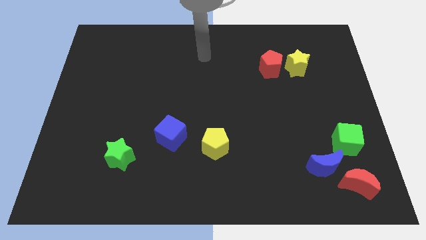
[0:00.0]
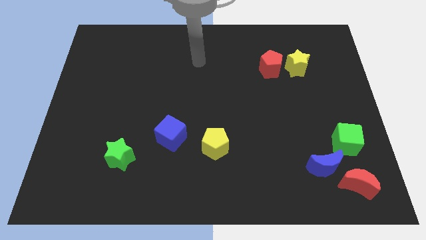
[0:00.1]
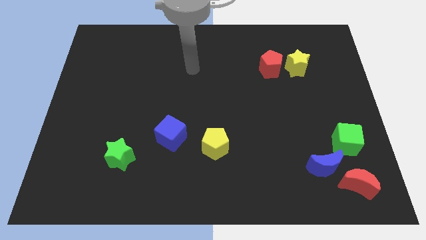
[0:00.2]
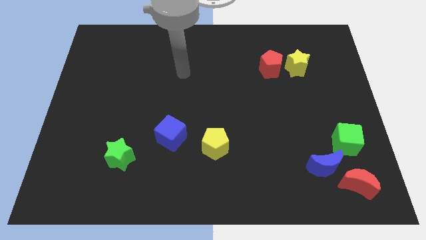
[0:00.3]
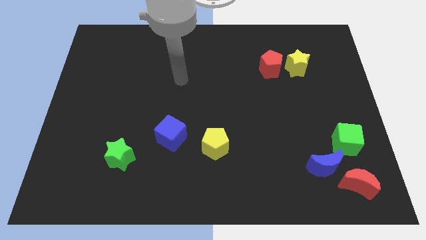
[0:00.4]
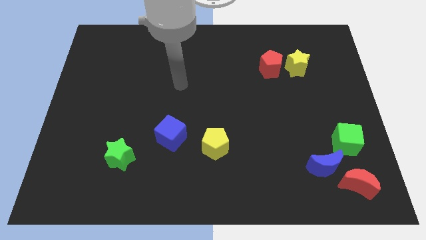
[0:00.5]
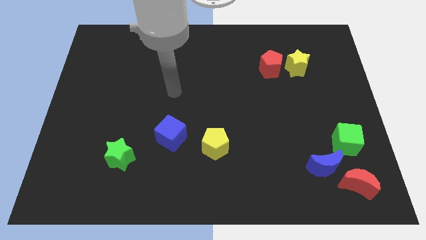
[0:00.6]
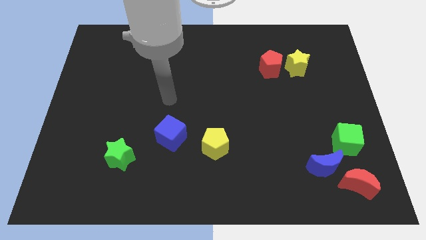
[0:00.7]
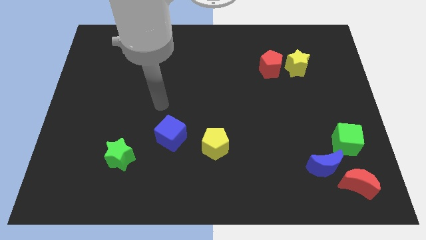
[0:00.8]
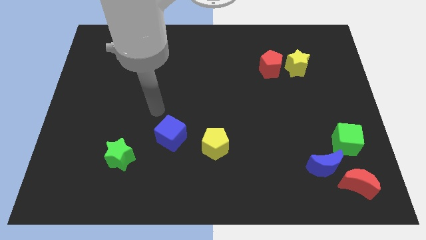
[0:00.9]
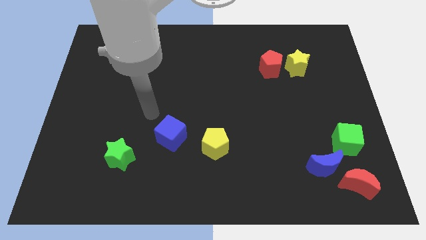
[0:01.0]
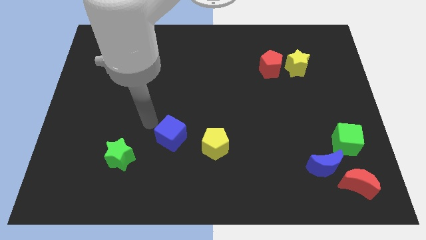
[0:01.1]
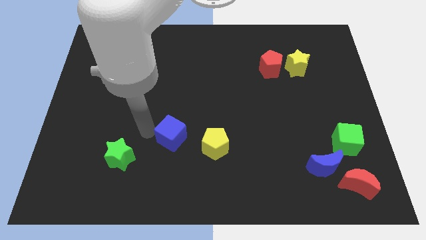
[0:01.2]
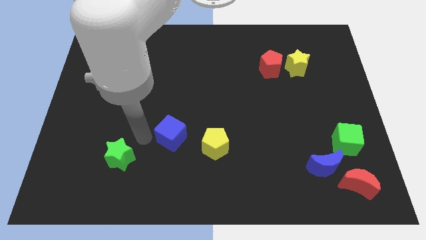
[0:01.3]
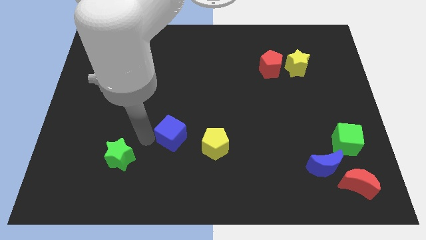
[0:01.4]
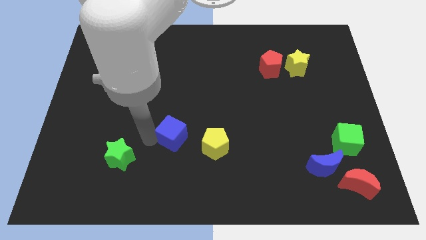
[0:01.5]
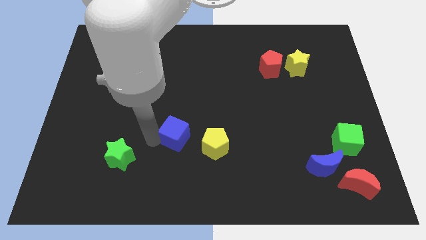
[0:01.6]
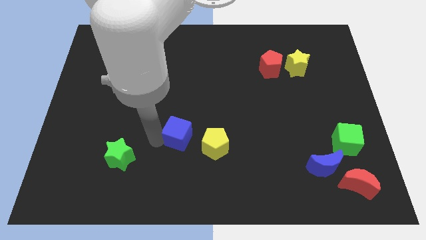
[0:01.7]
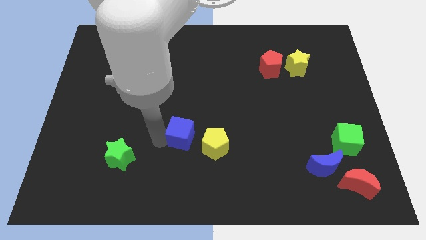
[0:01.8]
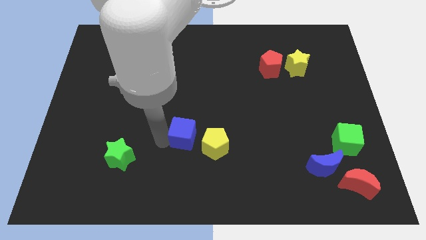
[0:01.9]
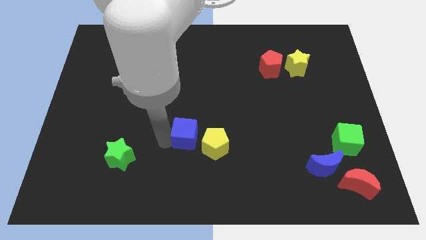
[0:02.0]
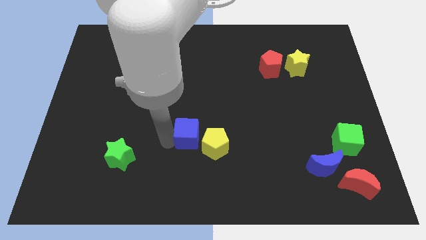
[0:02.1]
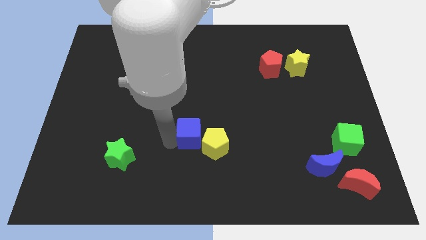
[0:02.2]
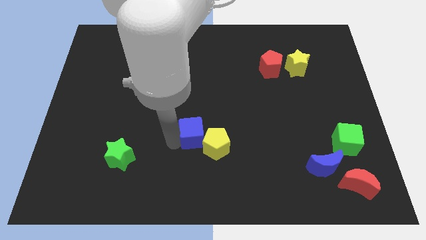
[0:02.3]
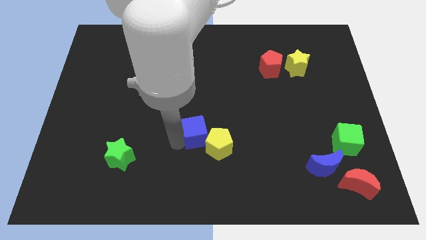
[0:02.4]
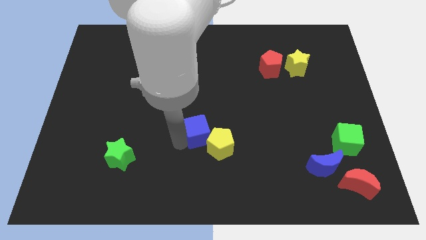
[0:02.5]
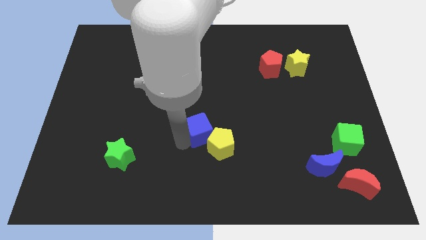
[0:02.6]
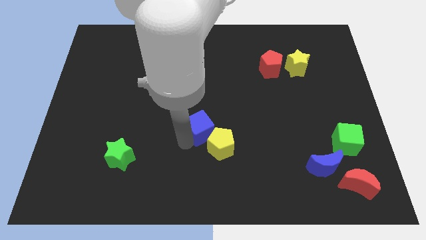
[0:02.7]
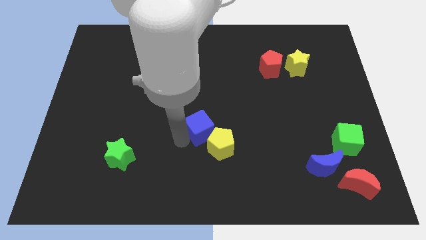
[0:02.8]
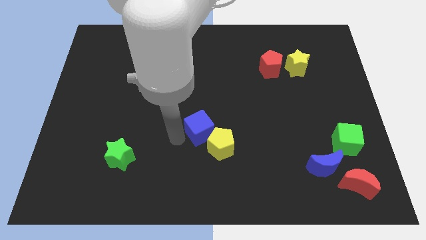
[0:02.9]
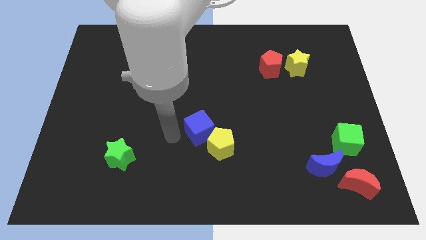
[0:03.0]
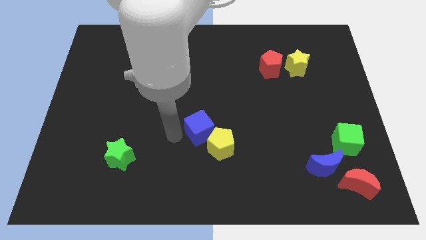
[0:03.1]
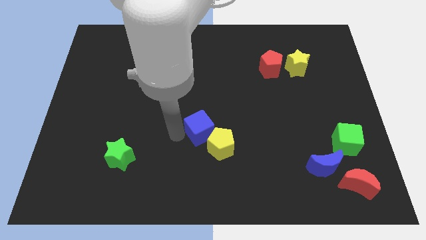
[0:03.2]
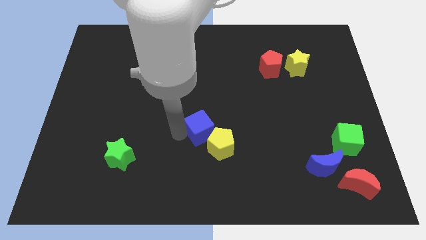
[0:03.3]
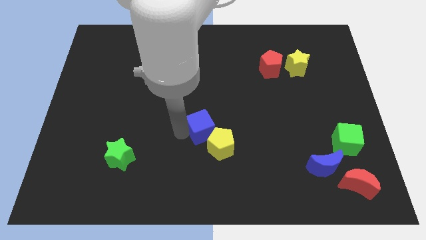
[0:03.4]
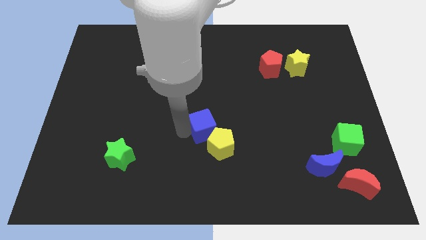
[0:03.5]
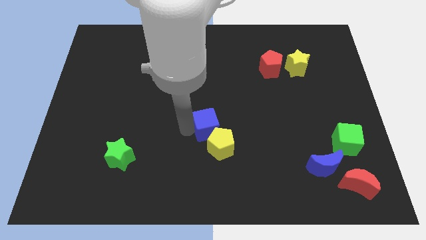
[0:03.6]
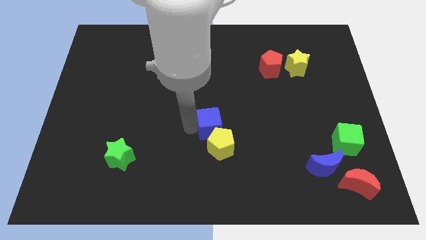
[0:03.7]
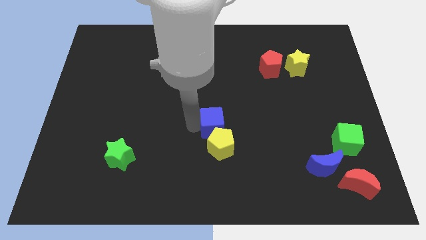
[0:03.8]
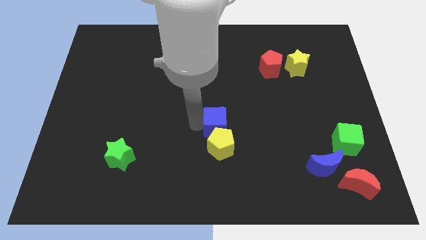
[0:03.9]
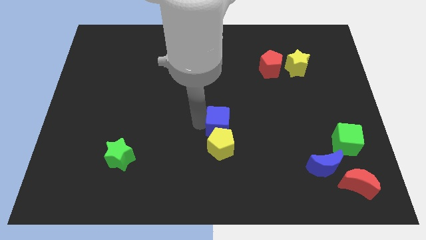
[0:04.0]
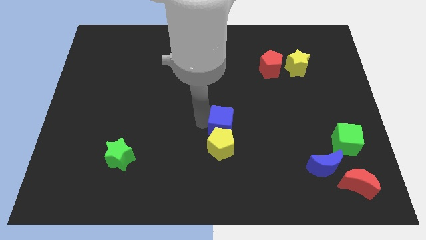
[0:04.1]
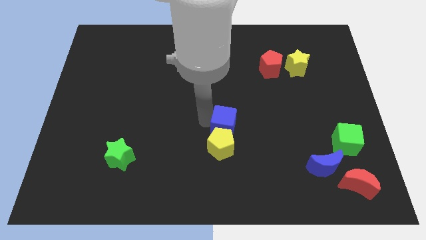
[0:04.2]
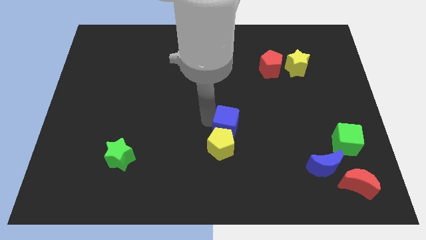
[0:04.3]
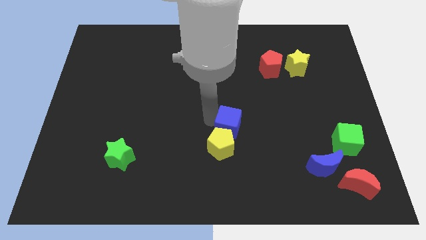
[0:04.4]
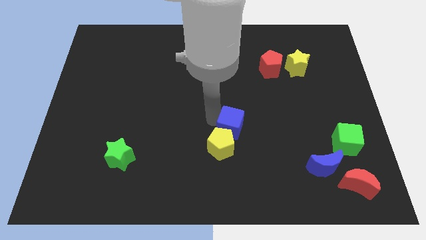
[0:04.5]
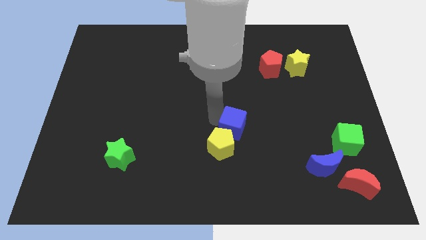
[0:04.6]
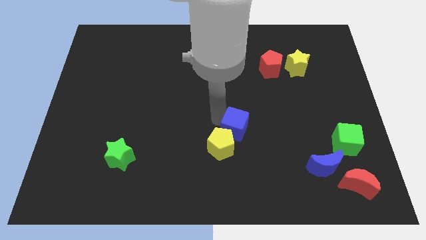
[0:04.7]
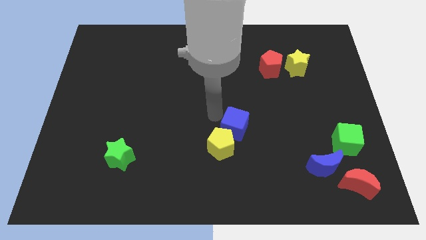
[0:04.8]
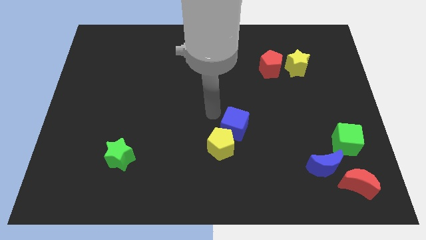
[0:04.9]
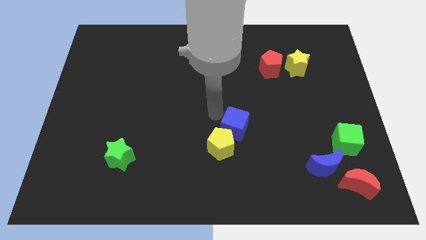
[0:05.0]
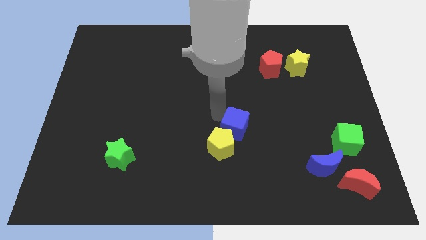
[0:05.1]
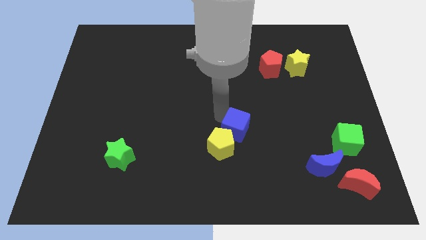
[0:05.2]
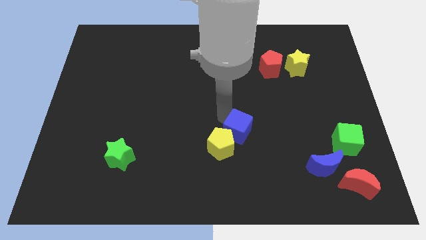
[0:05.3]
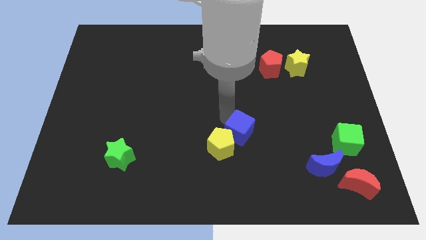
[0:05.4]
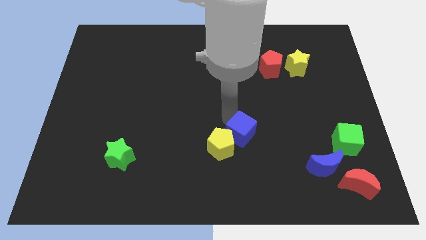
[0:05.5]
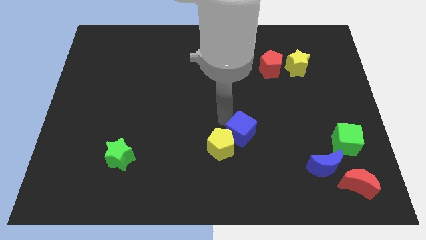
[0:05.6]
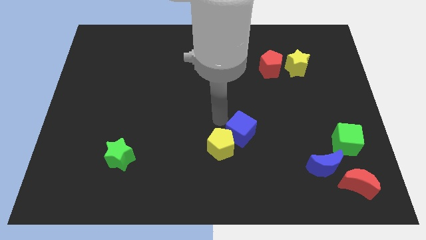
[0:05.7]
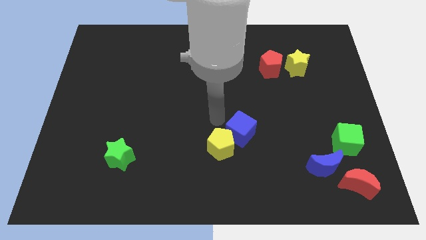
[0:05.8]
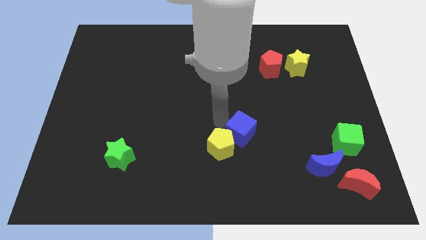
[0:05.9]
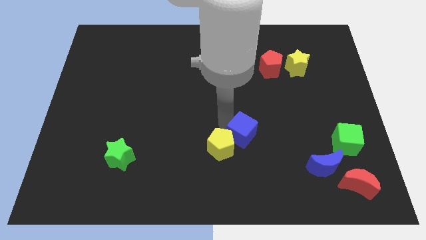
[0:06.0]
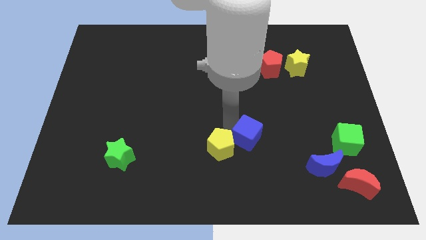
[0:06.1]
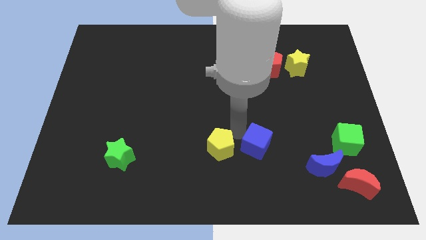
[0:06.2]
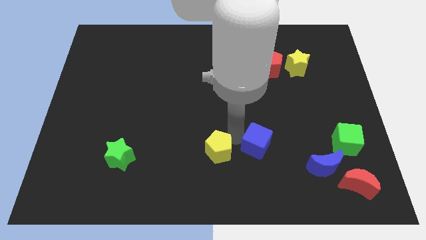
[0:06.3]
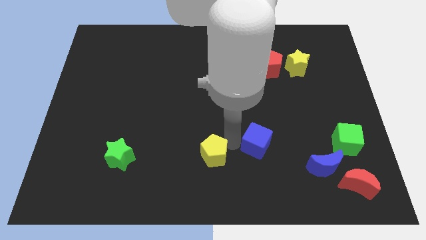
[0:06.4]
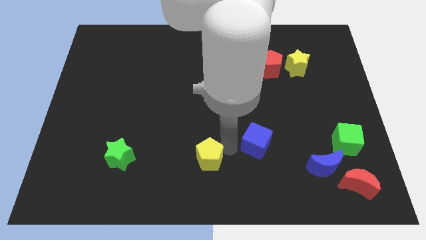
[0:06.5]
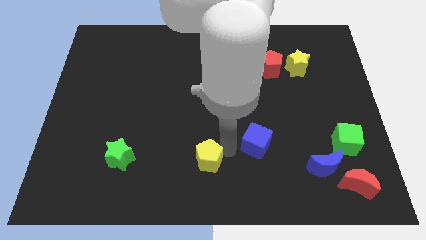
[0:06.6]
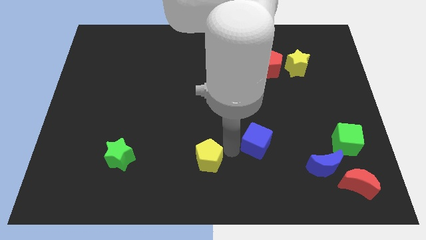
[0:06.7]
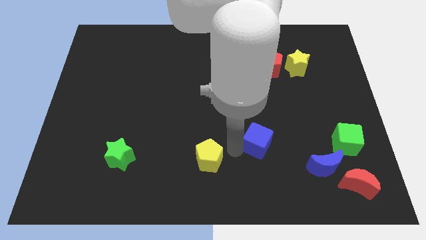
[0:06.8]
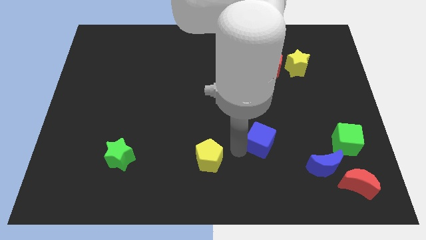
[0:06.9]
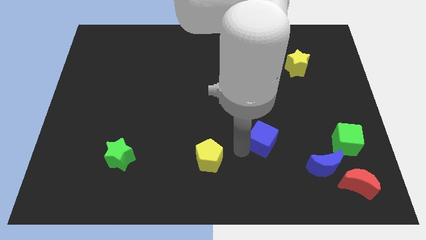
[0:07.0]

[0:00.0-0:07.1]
slide the blue cube to the right

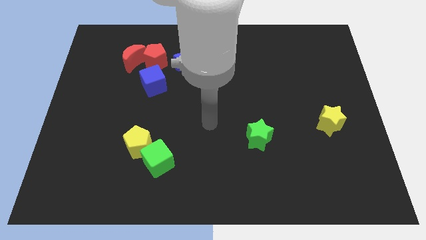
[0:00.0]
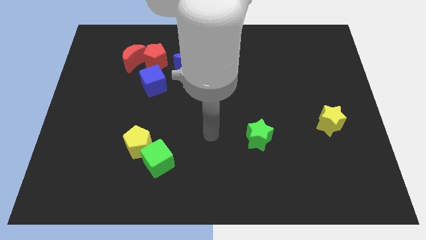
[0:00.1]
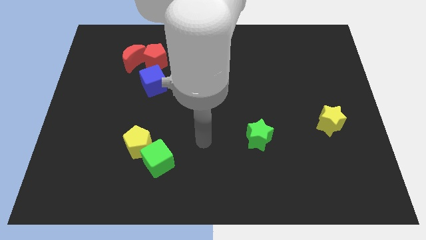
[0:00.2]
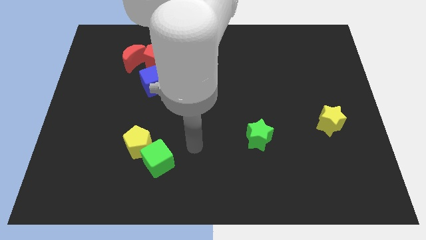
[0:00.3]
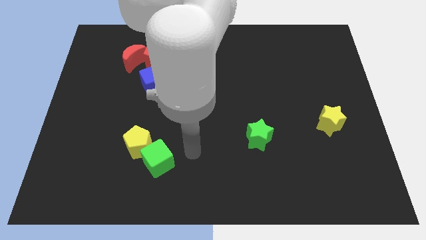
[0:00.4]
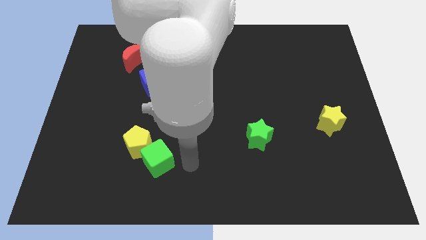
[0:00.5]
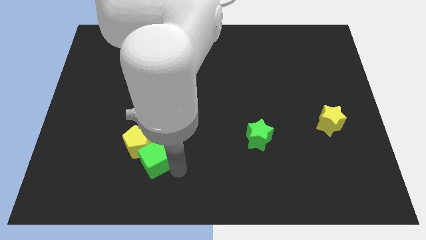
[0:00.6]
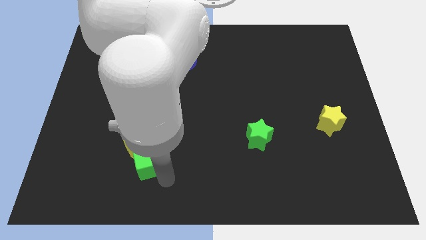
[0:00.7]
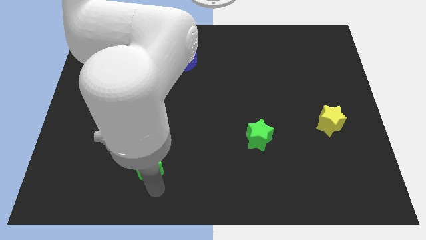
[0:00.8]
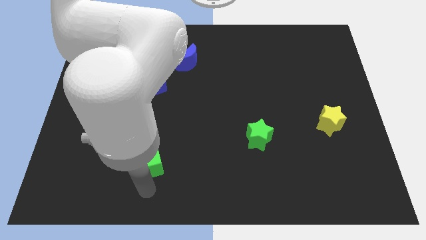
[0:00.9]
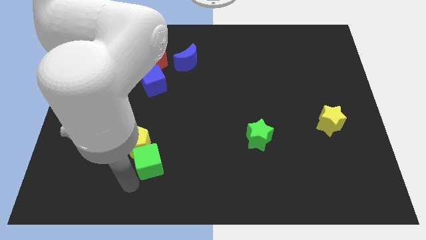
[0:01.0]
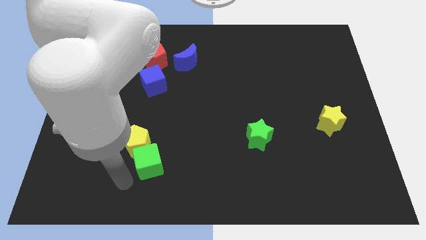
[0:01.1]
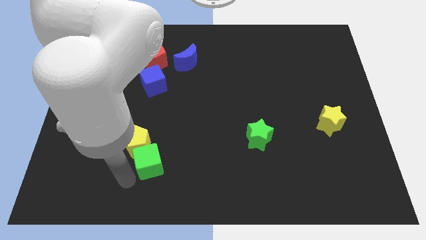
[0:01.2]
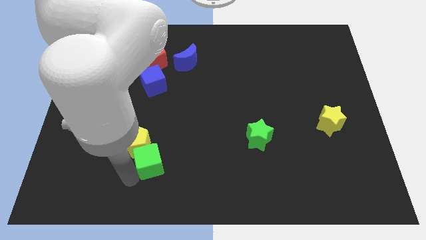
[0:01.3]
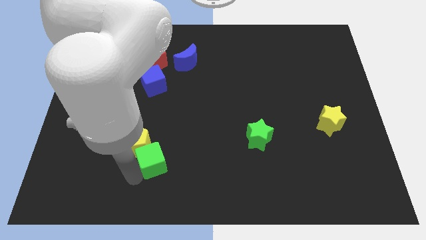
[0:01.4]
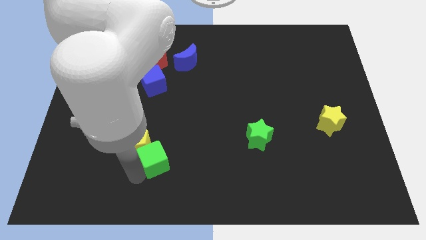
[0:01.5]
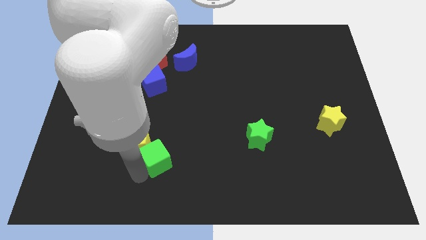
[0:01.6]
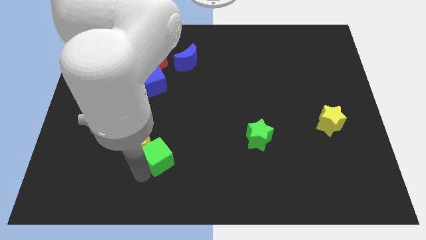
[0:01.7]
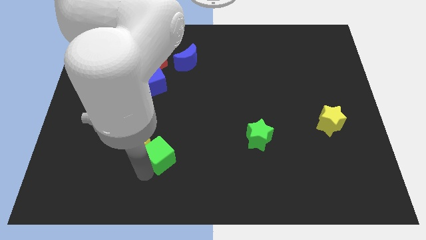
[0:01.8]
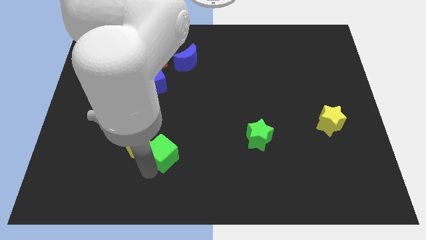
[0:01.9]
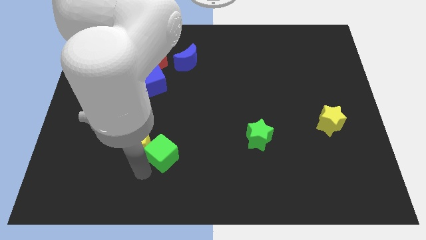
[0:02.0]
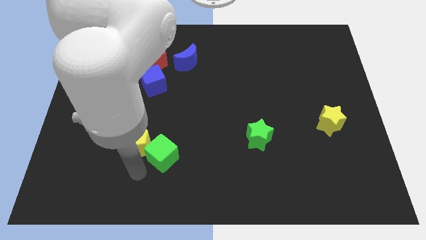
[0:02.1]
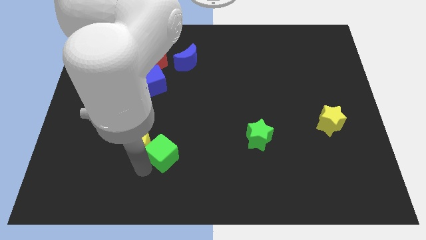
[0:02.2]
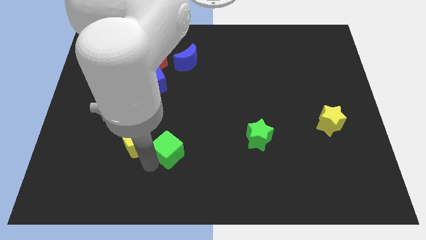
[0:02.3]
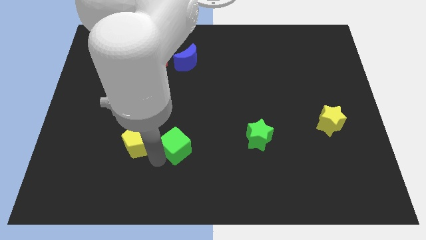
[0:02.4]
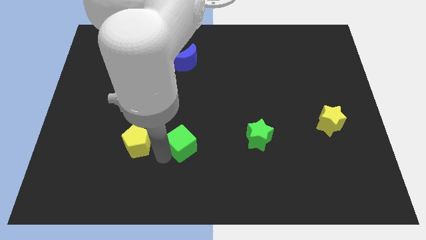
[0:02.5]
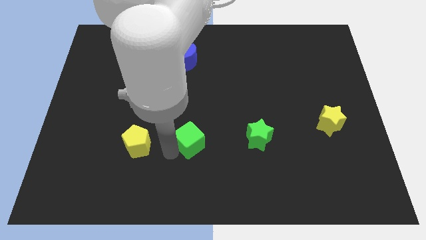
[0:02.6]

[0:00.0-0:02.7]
slightly move the green cube up and then right
